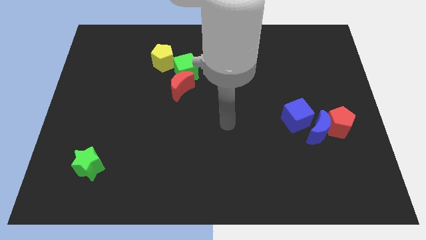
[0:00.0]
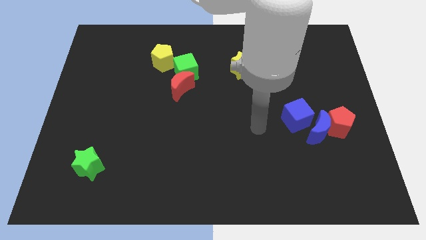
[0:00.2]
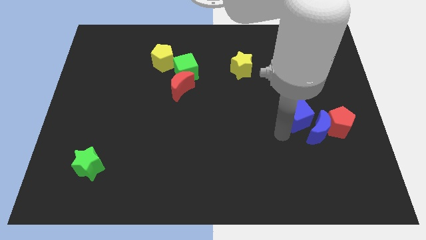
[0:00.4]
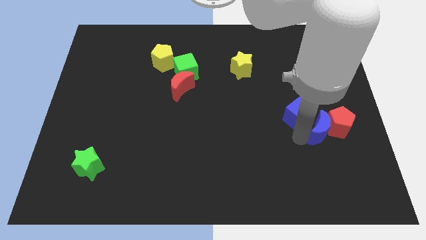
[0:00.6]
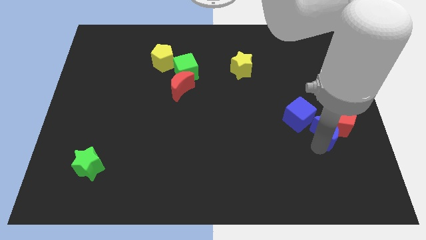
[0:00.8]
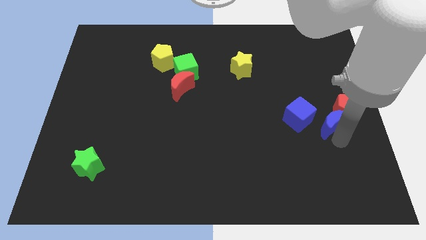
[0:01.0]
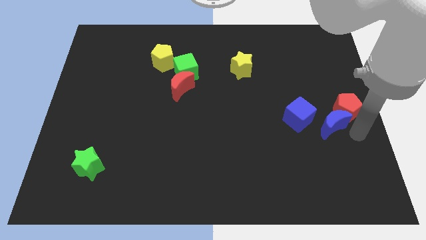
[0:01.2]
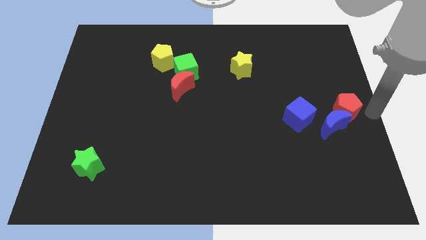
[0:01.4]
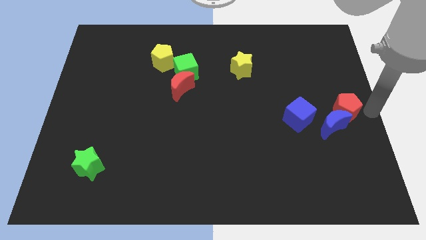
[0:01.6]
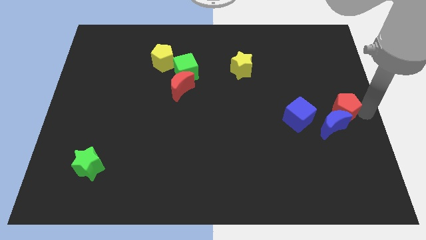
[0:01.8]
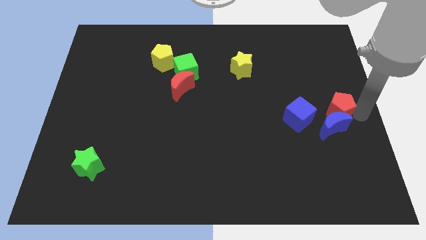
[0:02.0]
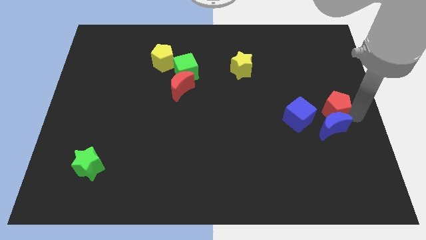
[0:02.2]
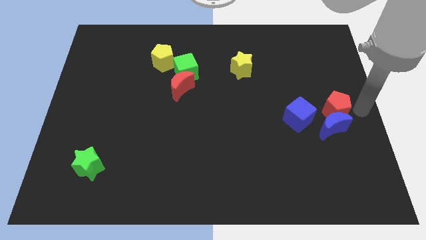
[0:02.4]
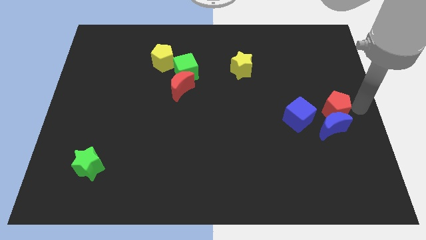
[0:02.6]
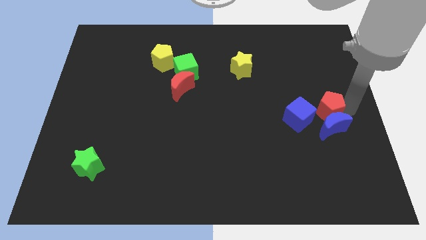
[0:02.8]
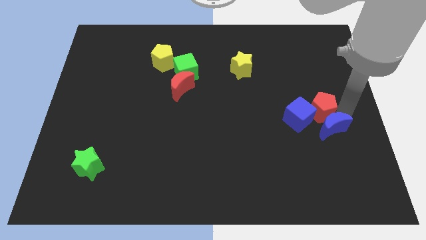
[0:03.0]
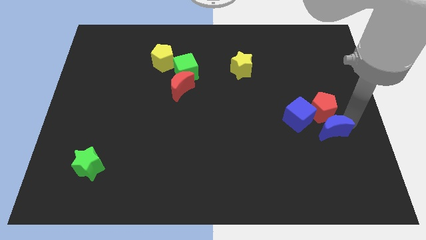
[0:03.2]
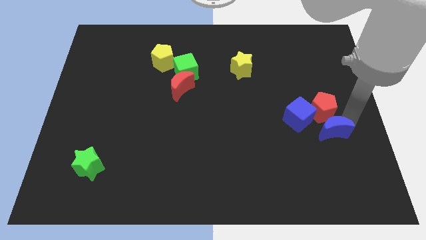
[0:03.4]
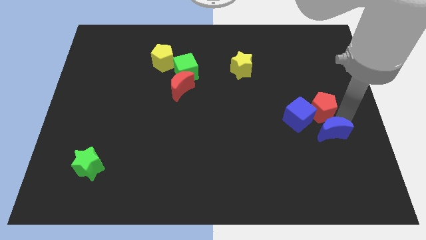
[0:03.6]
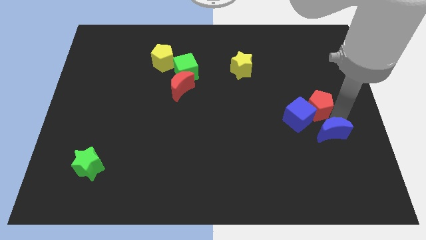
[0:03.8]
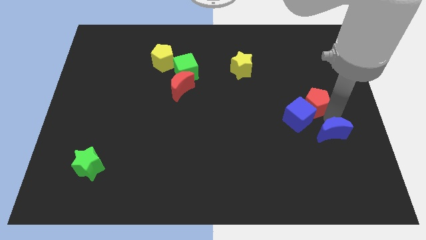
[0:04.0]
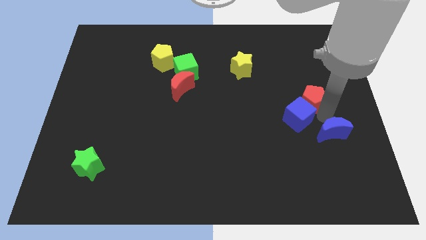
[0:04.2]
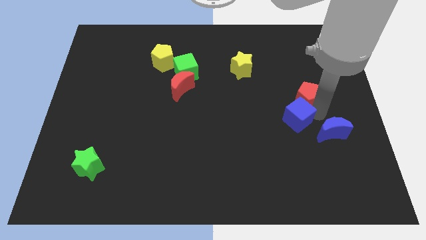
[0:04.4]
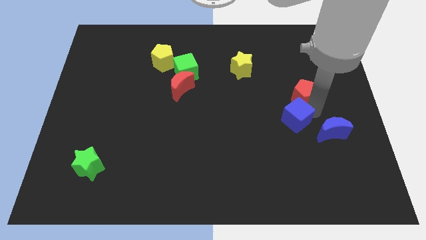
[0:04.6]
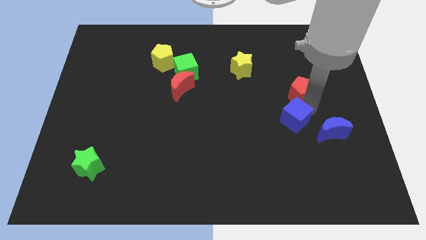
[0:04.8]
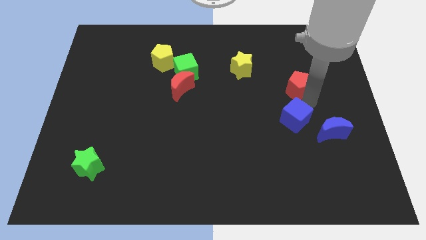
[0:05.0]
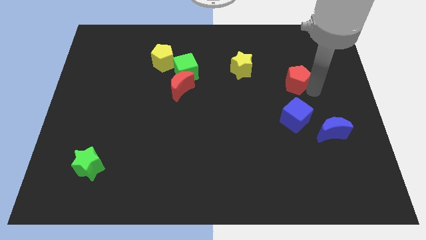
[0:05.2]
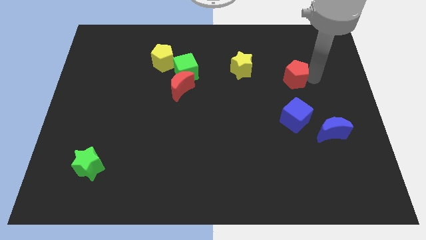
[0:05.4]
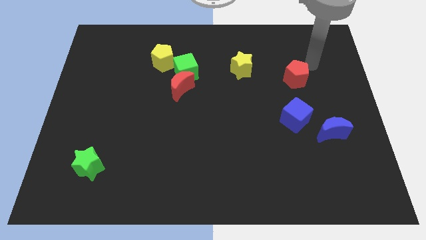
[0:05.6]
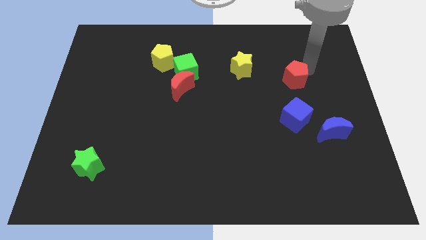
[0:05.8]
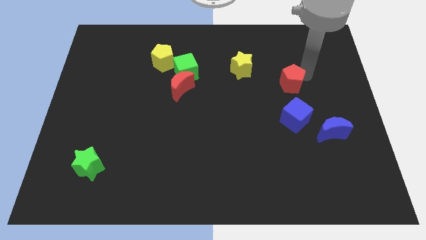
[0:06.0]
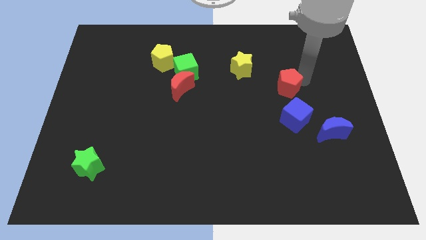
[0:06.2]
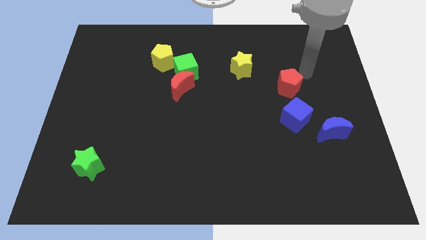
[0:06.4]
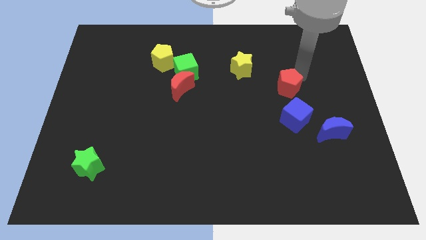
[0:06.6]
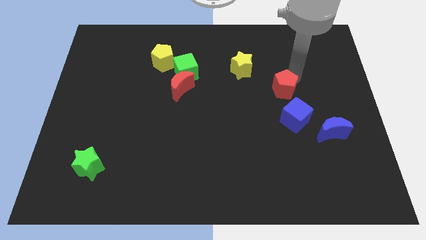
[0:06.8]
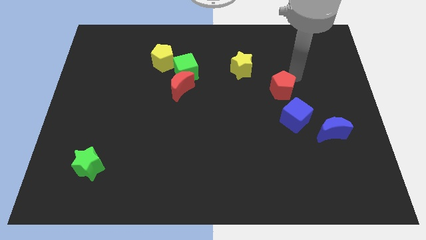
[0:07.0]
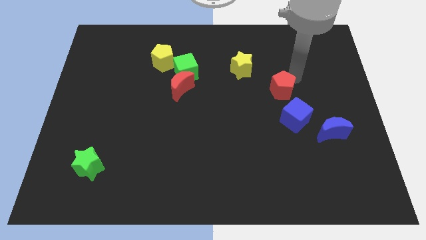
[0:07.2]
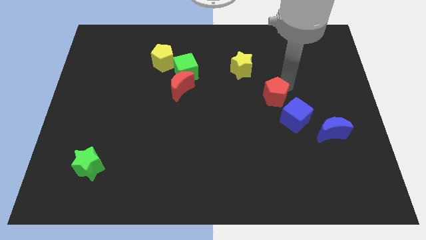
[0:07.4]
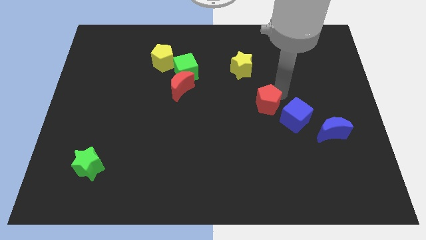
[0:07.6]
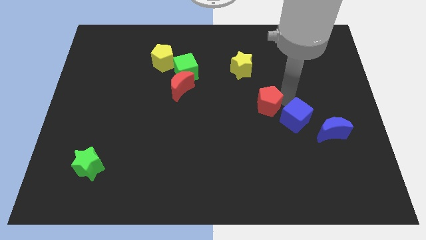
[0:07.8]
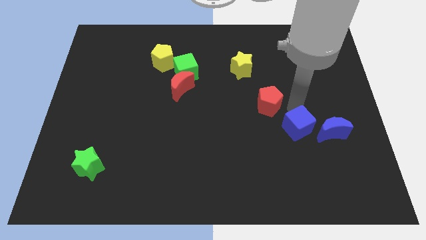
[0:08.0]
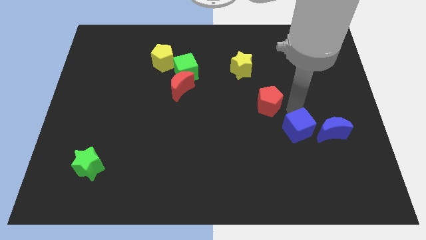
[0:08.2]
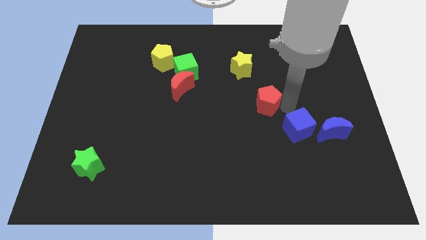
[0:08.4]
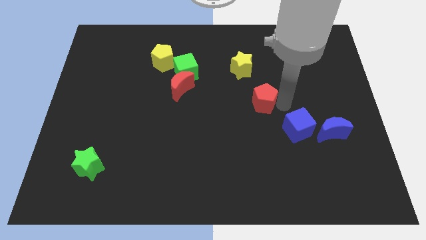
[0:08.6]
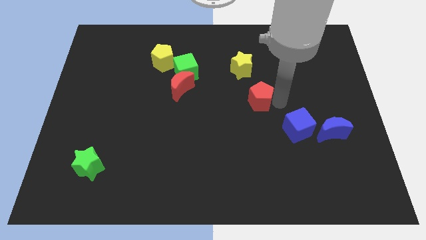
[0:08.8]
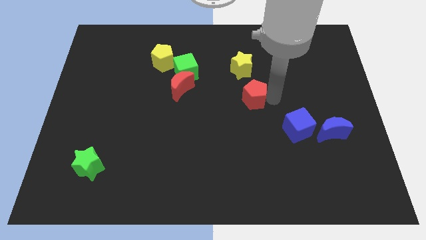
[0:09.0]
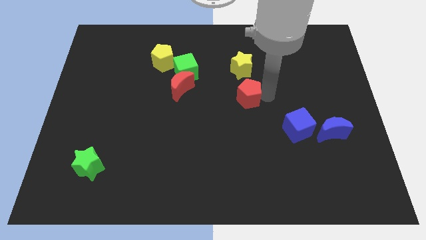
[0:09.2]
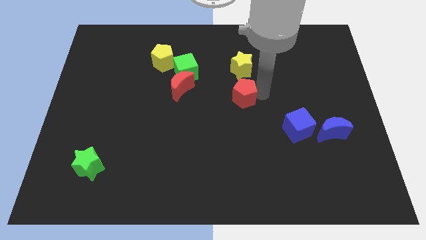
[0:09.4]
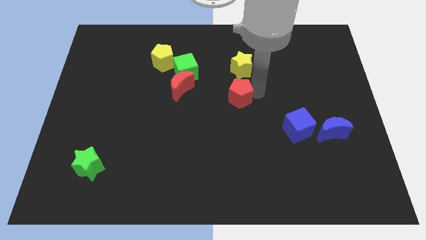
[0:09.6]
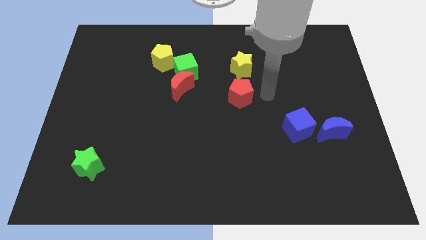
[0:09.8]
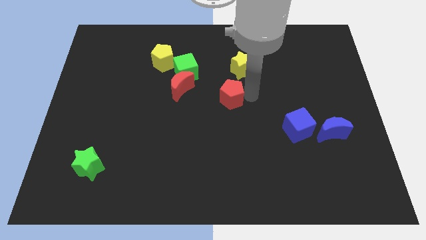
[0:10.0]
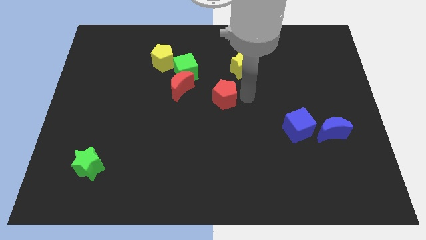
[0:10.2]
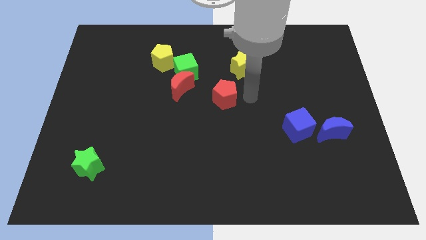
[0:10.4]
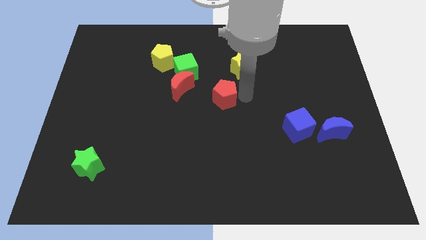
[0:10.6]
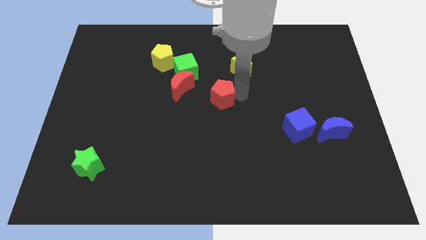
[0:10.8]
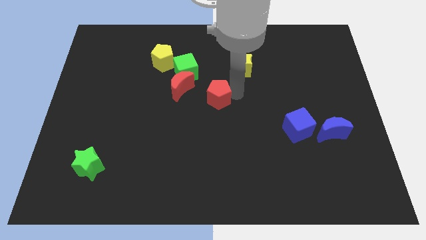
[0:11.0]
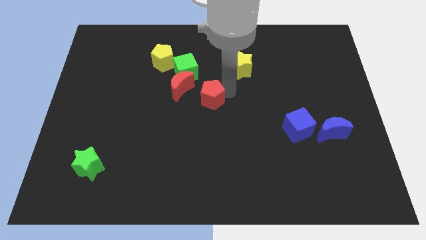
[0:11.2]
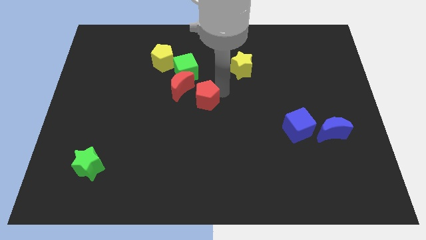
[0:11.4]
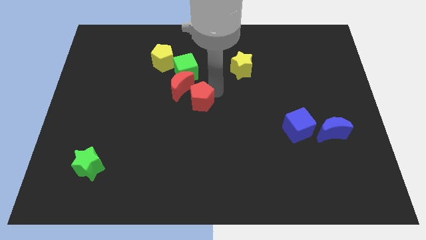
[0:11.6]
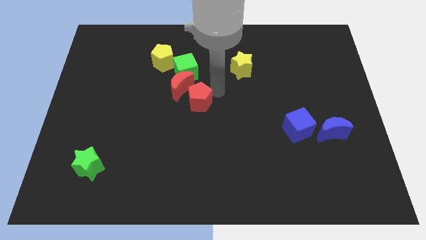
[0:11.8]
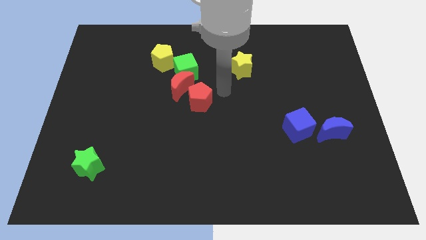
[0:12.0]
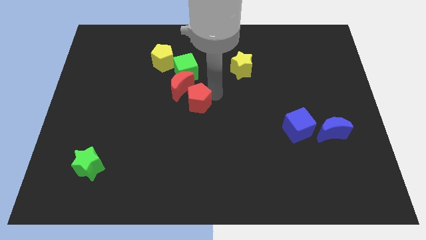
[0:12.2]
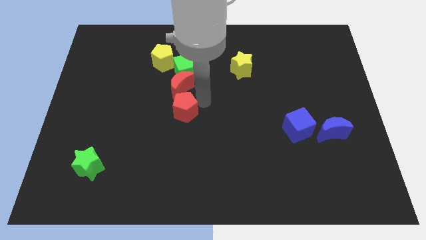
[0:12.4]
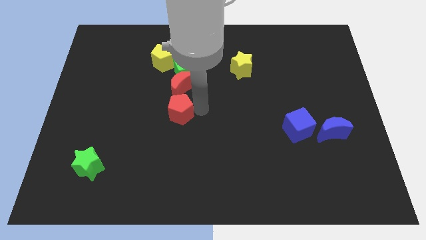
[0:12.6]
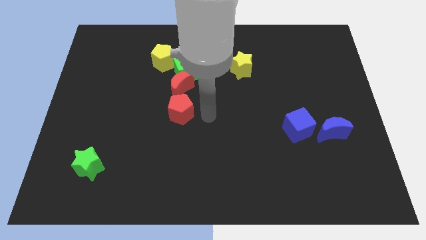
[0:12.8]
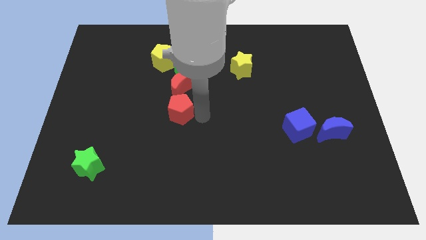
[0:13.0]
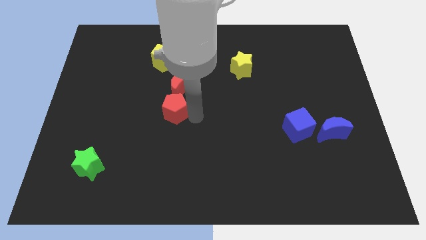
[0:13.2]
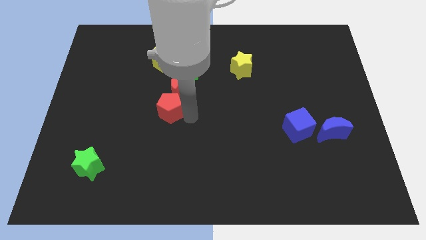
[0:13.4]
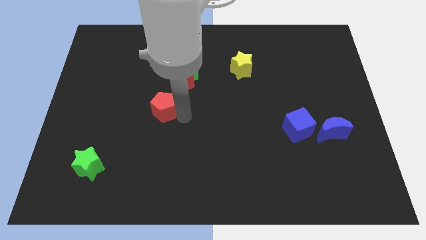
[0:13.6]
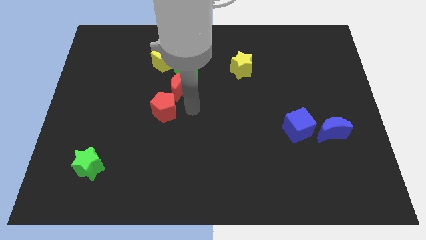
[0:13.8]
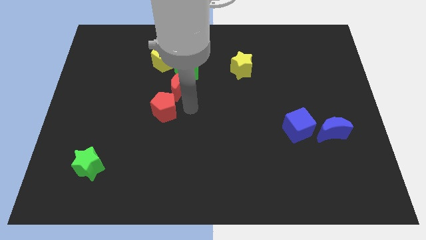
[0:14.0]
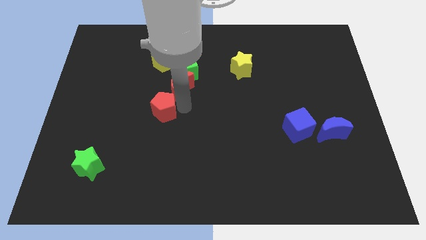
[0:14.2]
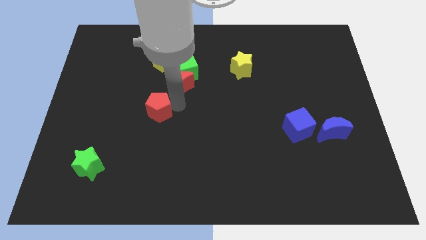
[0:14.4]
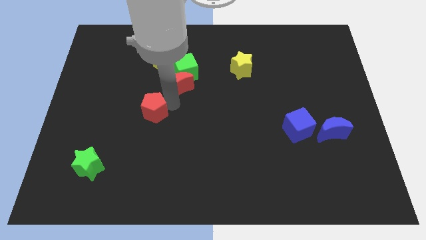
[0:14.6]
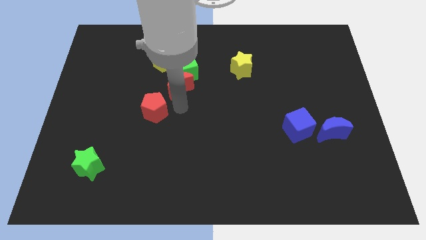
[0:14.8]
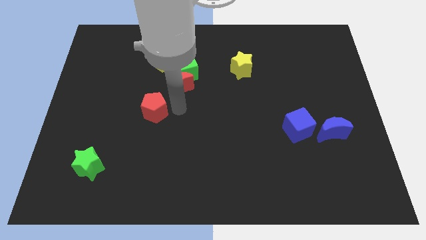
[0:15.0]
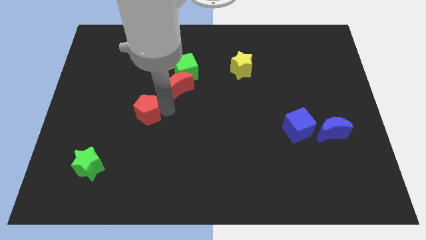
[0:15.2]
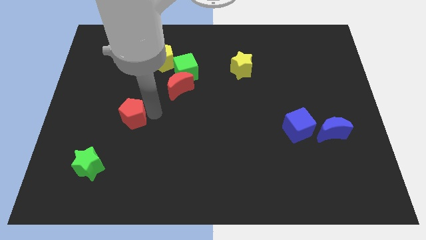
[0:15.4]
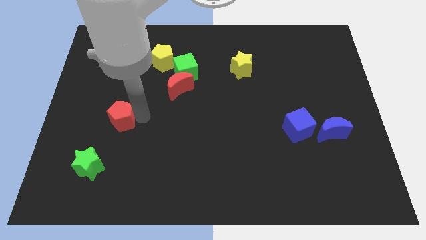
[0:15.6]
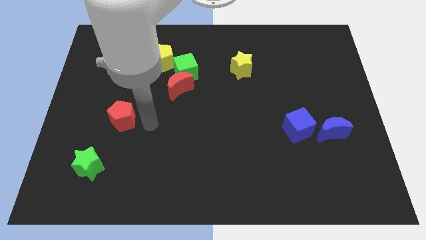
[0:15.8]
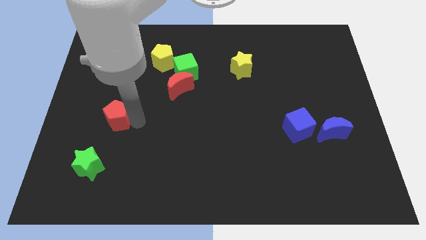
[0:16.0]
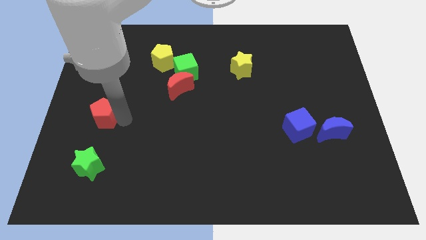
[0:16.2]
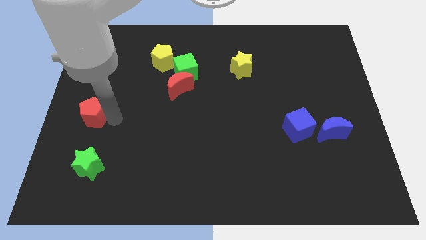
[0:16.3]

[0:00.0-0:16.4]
push the red pentagon to the center left
